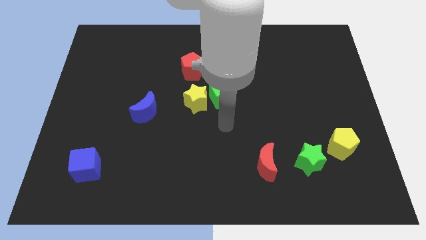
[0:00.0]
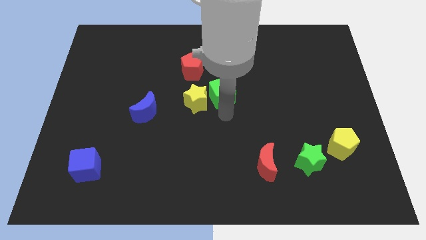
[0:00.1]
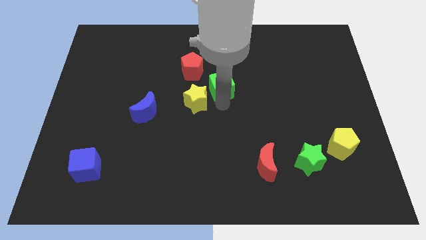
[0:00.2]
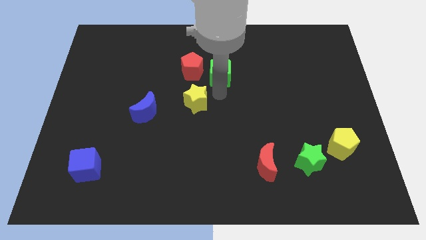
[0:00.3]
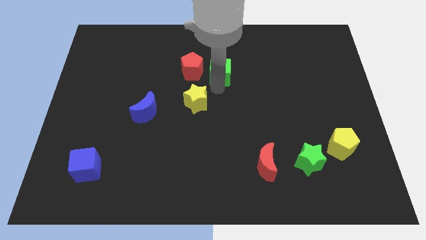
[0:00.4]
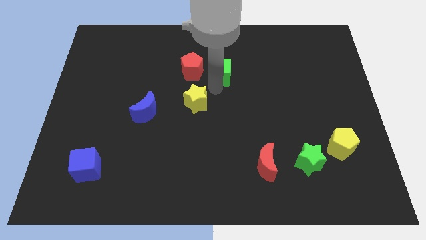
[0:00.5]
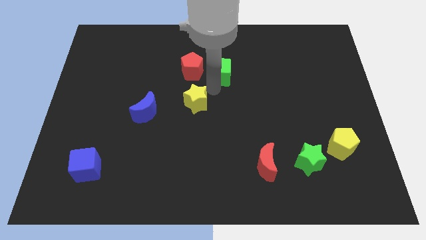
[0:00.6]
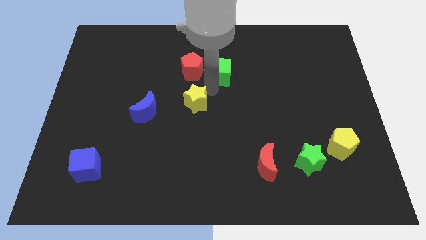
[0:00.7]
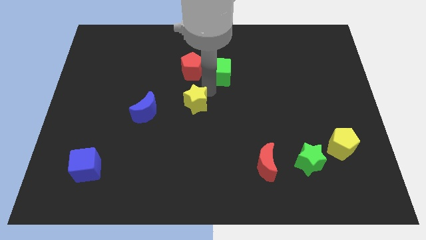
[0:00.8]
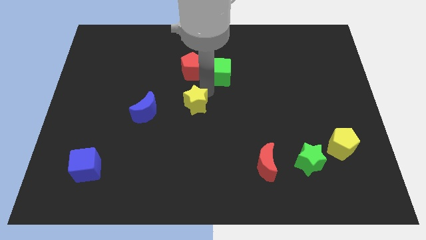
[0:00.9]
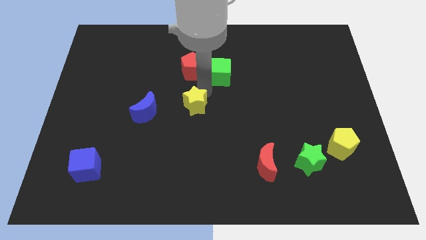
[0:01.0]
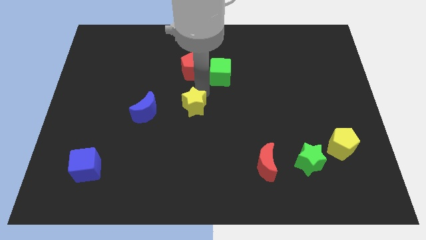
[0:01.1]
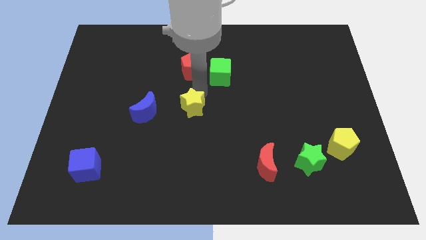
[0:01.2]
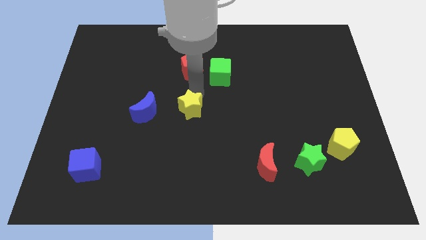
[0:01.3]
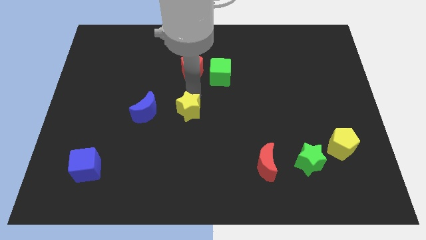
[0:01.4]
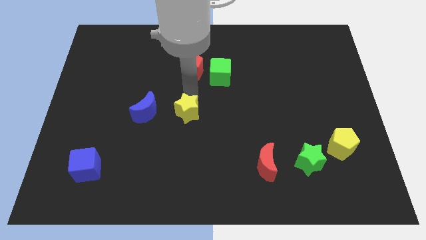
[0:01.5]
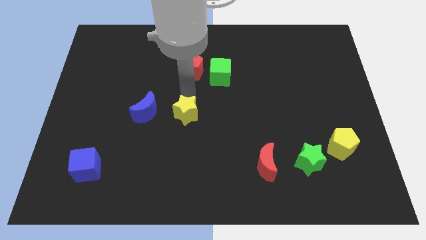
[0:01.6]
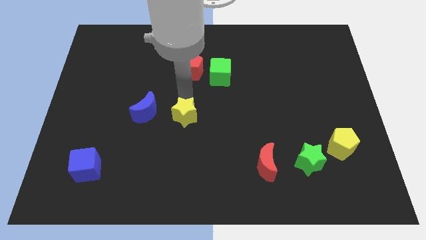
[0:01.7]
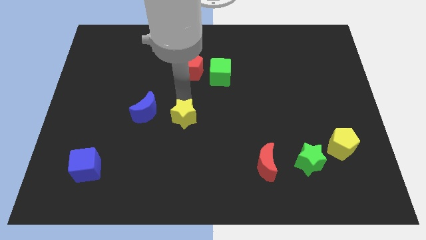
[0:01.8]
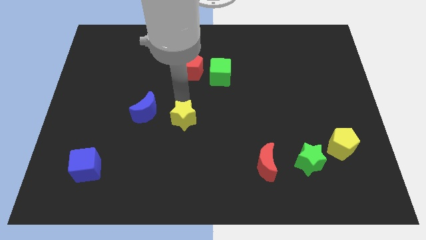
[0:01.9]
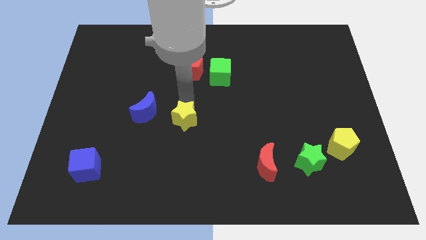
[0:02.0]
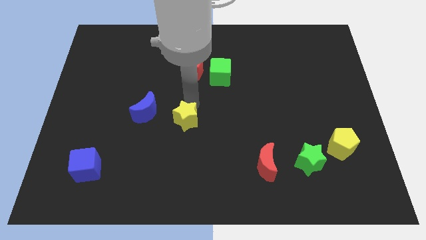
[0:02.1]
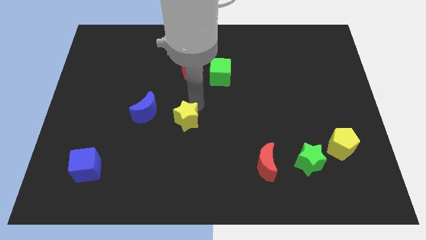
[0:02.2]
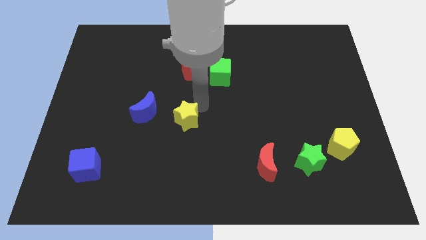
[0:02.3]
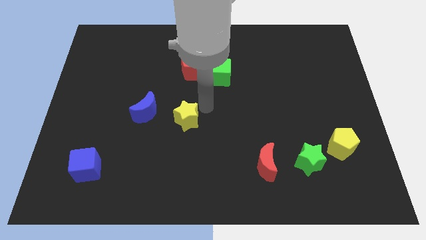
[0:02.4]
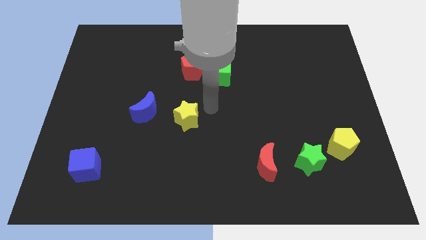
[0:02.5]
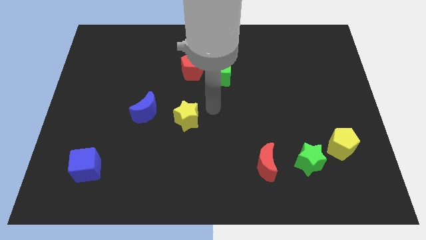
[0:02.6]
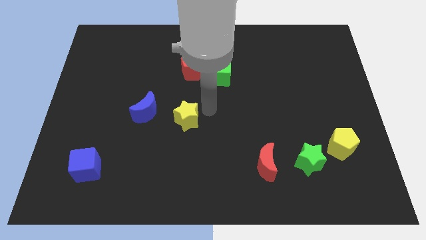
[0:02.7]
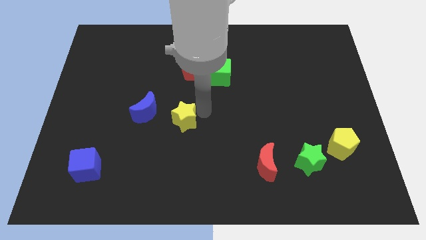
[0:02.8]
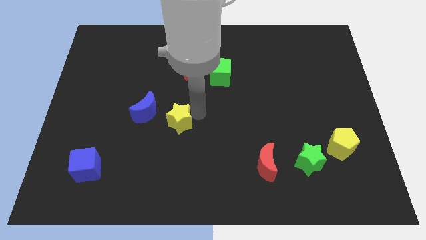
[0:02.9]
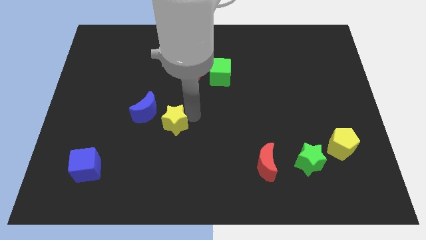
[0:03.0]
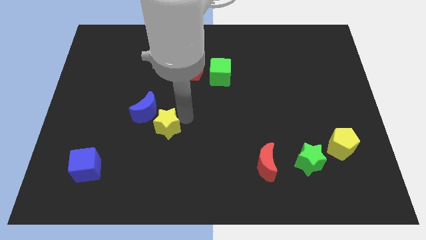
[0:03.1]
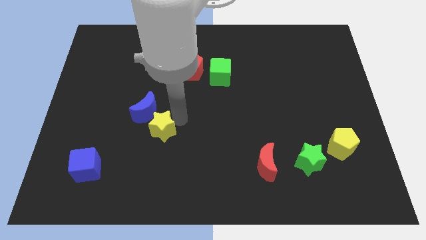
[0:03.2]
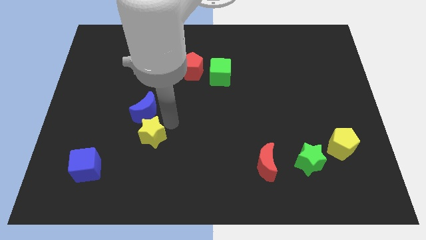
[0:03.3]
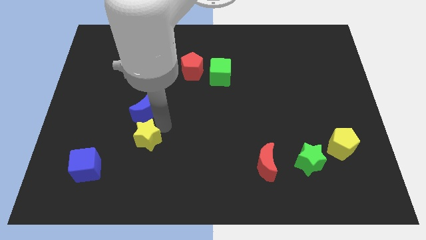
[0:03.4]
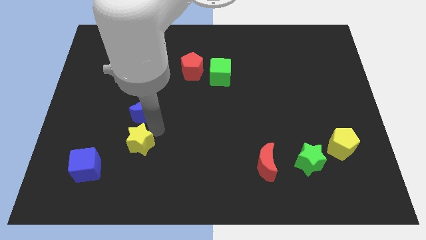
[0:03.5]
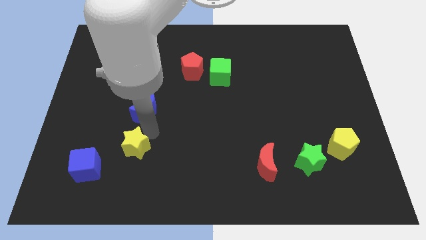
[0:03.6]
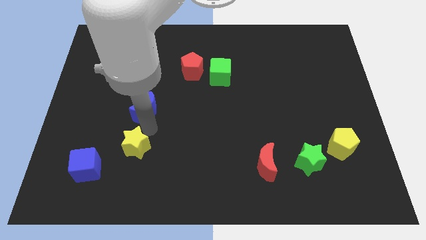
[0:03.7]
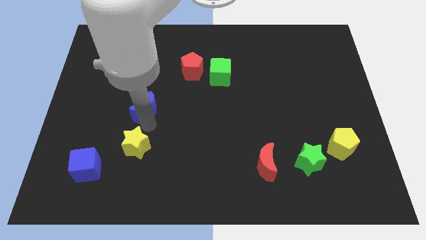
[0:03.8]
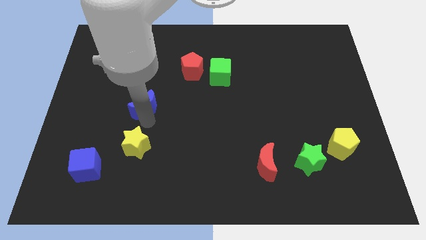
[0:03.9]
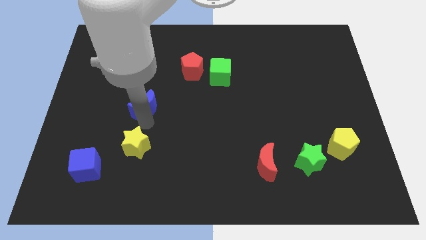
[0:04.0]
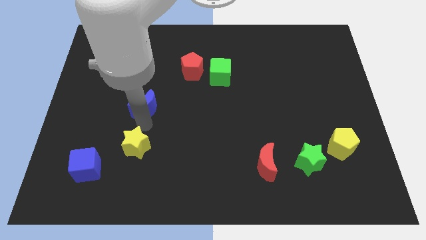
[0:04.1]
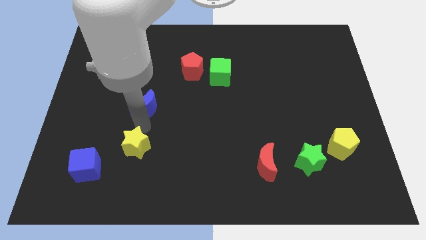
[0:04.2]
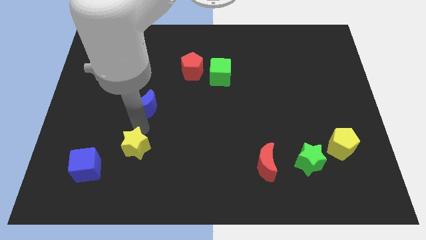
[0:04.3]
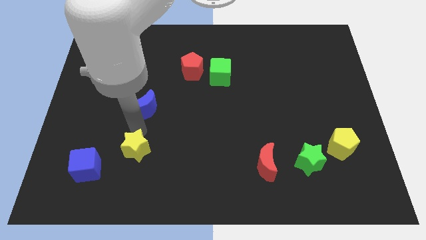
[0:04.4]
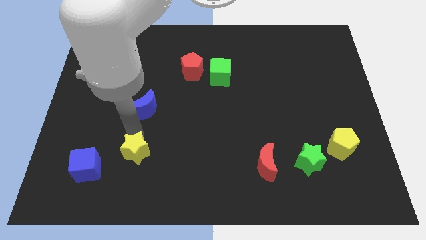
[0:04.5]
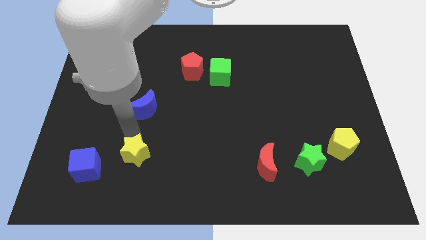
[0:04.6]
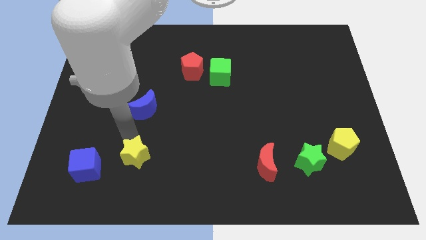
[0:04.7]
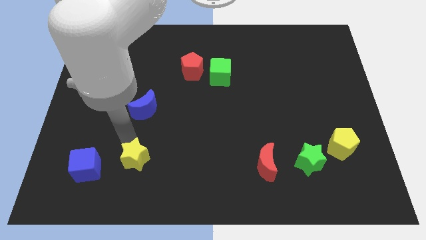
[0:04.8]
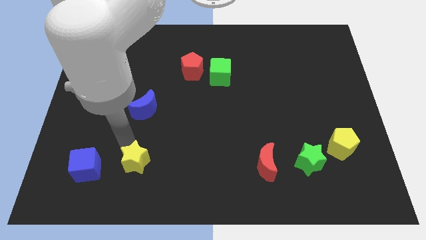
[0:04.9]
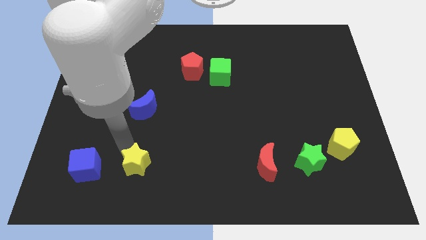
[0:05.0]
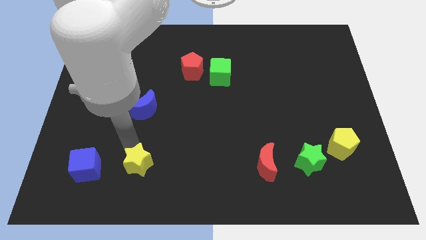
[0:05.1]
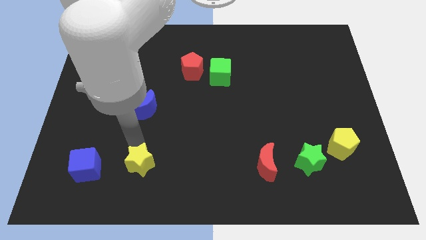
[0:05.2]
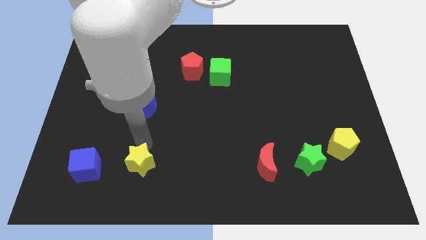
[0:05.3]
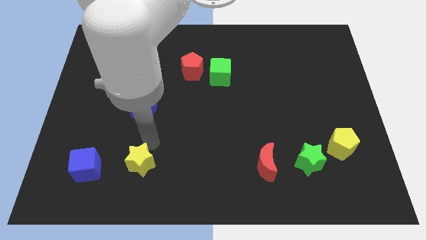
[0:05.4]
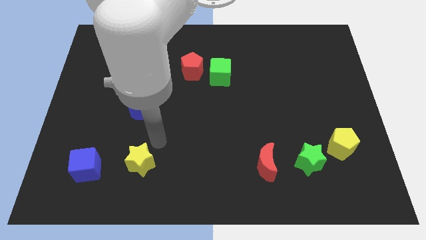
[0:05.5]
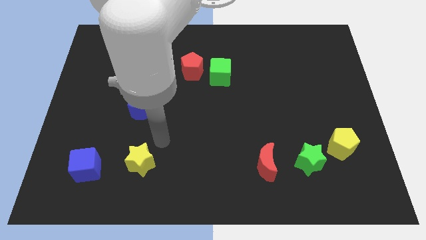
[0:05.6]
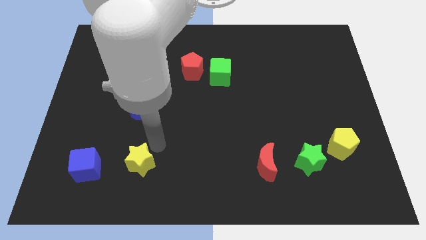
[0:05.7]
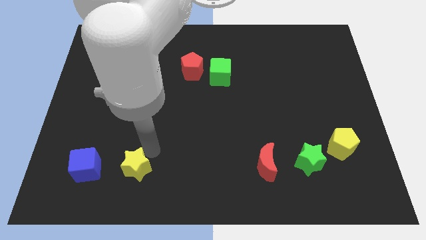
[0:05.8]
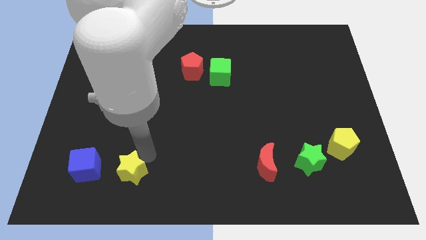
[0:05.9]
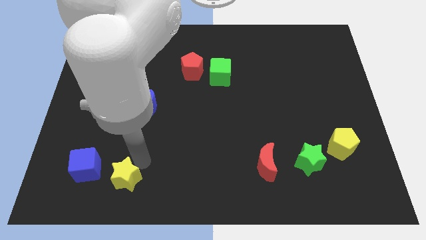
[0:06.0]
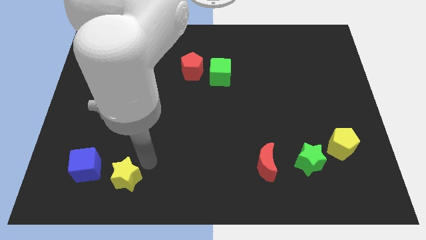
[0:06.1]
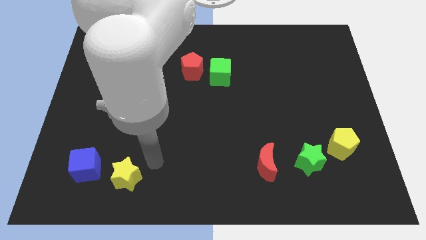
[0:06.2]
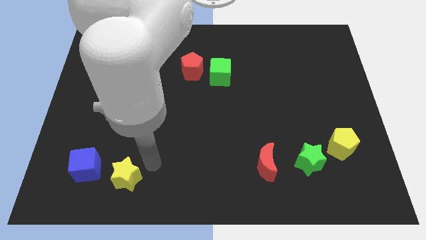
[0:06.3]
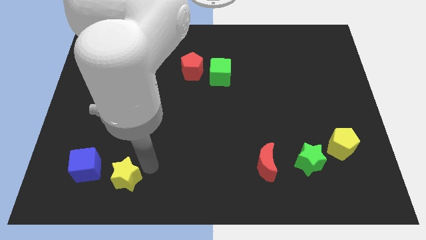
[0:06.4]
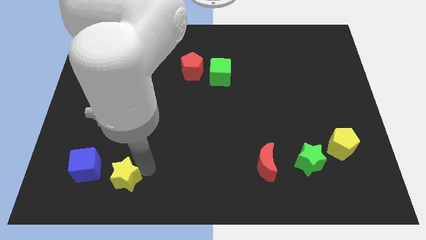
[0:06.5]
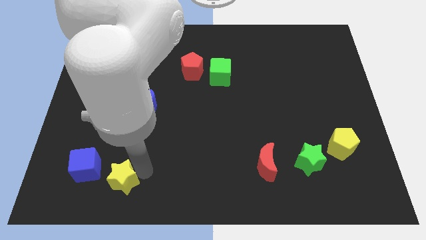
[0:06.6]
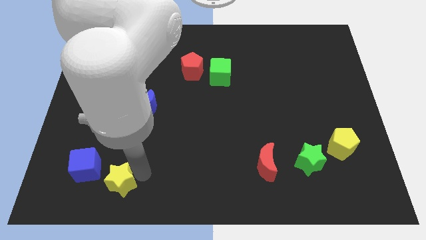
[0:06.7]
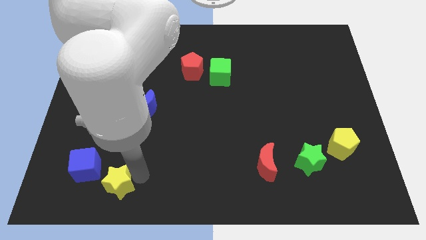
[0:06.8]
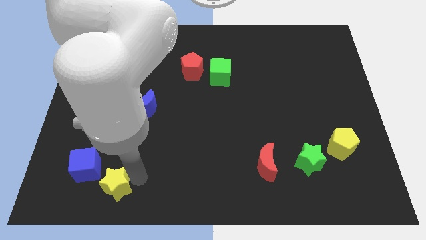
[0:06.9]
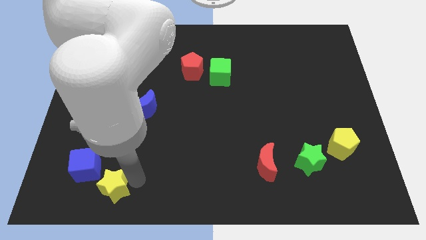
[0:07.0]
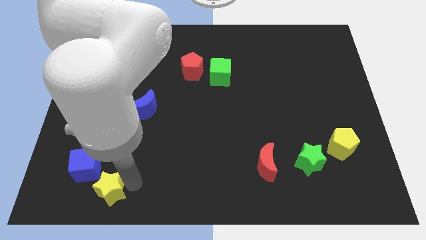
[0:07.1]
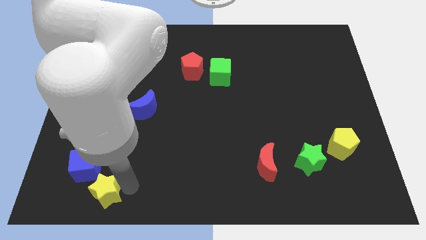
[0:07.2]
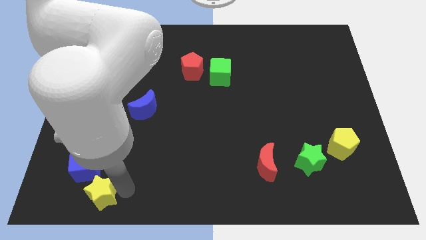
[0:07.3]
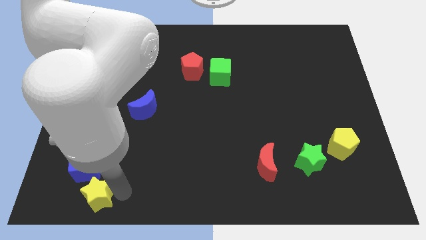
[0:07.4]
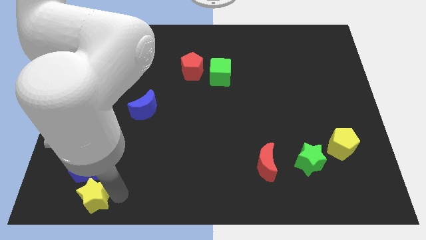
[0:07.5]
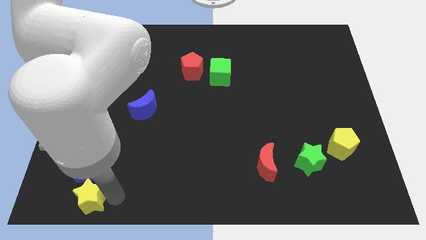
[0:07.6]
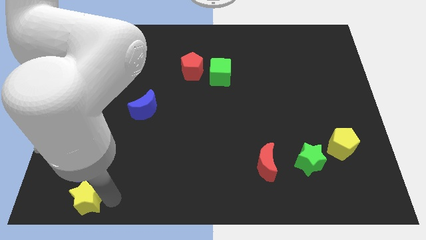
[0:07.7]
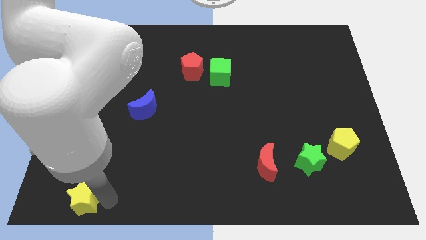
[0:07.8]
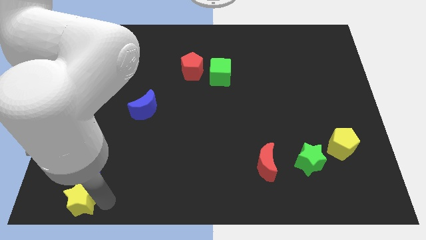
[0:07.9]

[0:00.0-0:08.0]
move the yellow star to the lower left corner
